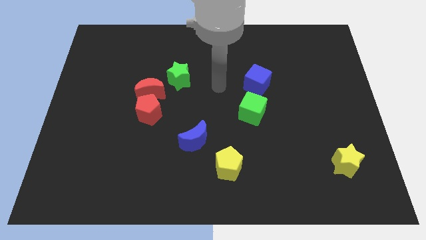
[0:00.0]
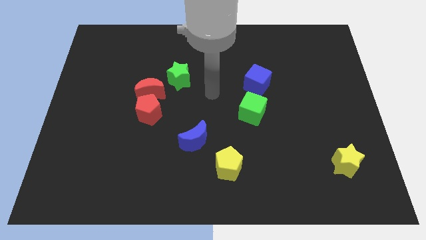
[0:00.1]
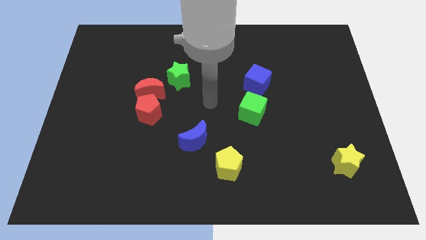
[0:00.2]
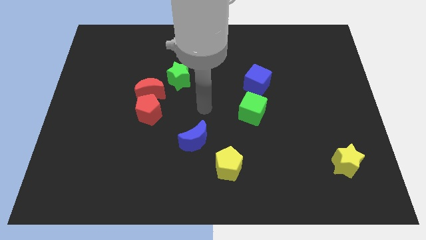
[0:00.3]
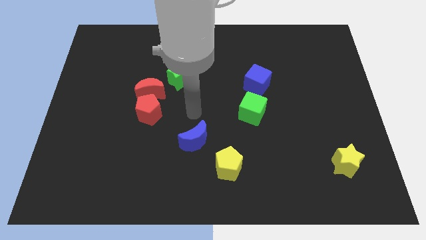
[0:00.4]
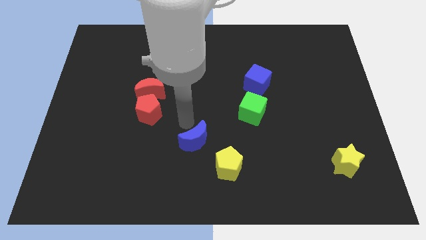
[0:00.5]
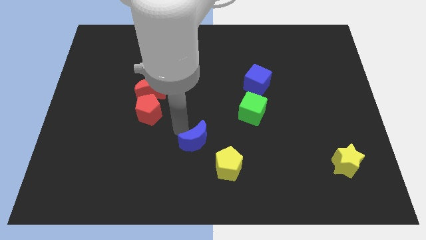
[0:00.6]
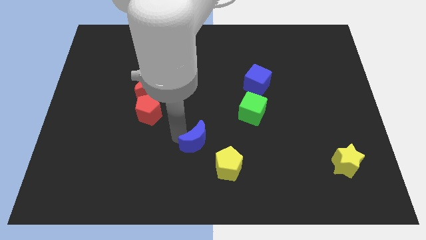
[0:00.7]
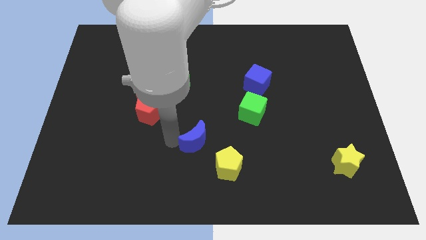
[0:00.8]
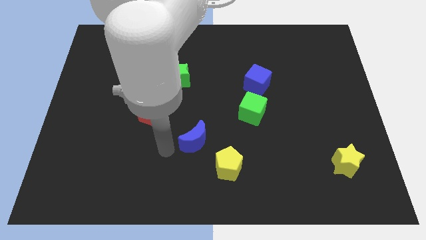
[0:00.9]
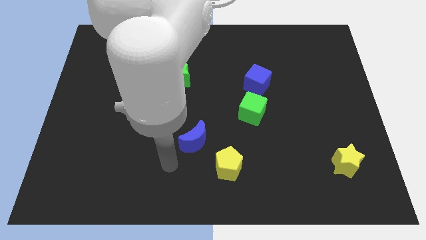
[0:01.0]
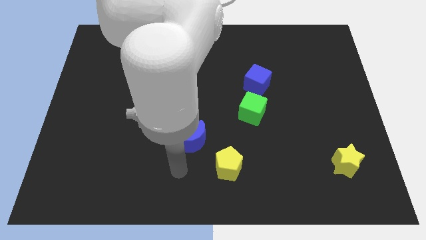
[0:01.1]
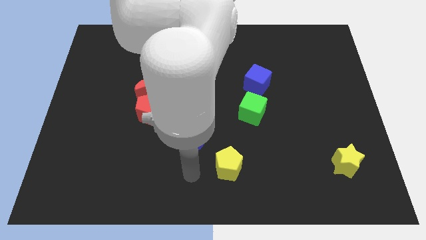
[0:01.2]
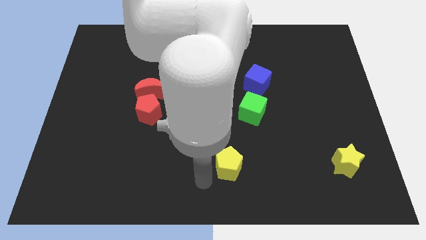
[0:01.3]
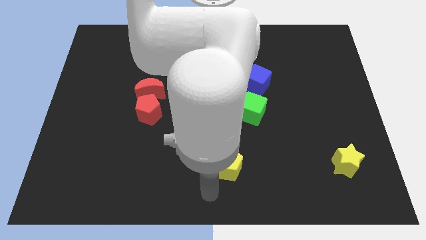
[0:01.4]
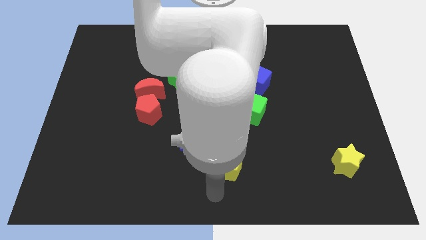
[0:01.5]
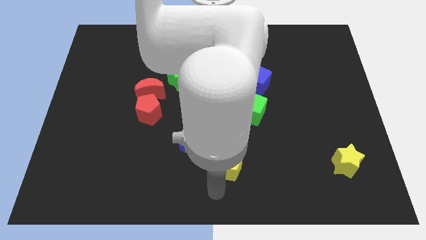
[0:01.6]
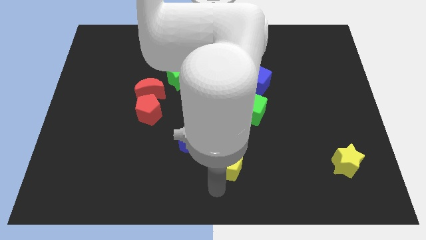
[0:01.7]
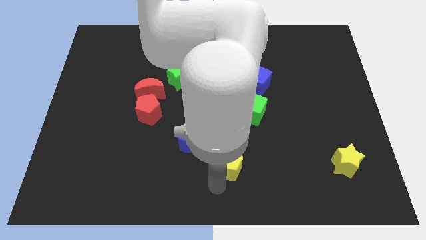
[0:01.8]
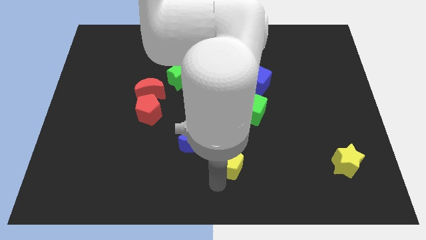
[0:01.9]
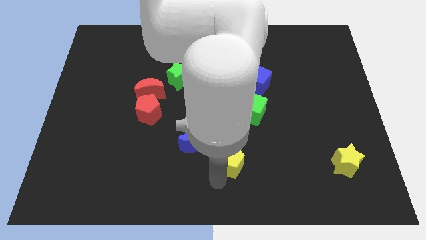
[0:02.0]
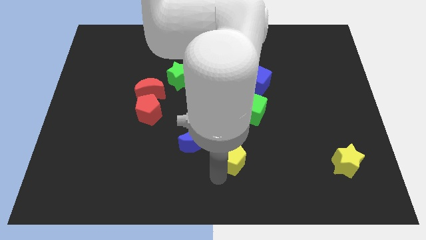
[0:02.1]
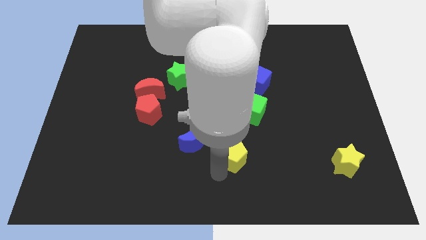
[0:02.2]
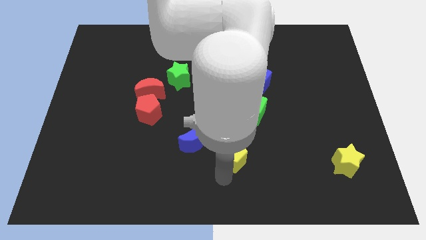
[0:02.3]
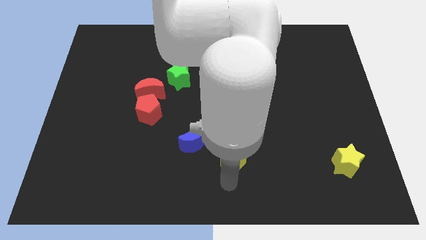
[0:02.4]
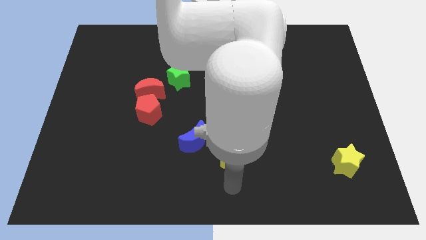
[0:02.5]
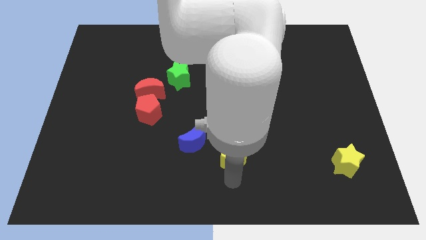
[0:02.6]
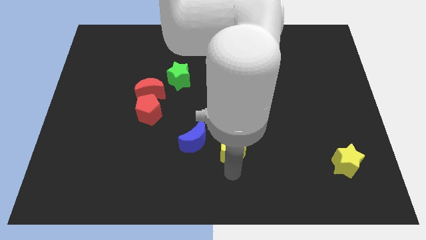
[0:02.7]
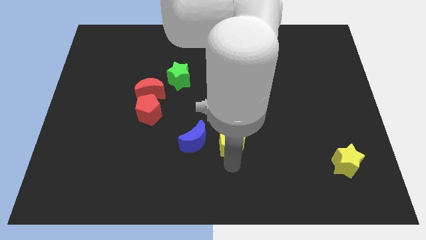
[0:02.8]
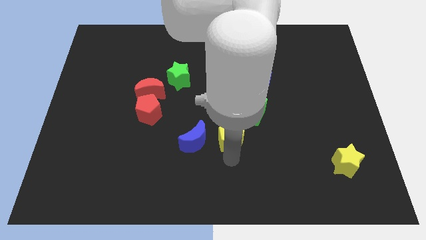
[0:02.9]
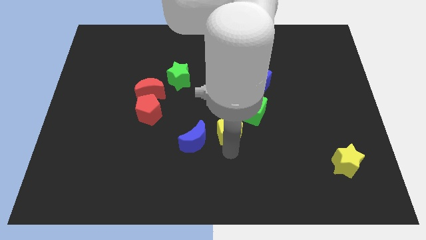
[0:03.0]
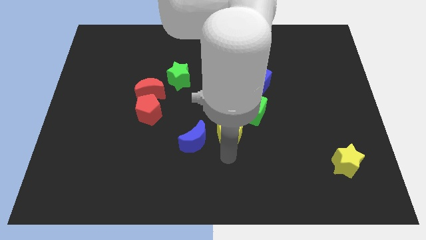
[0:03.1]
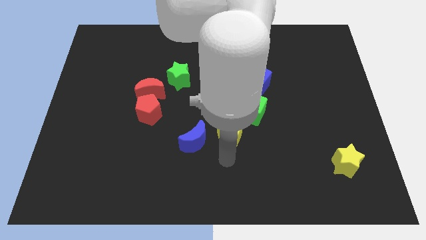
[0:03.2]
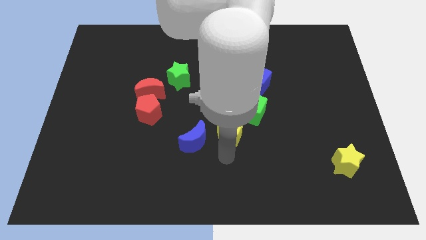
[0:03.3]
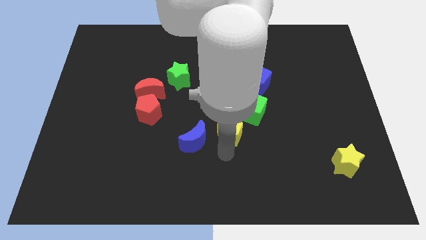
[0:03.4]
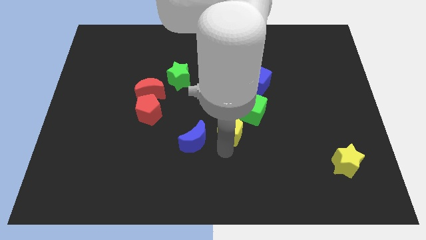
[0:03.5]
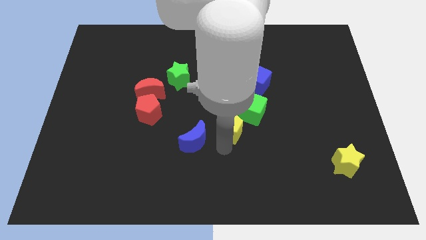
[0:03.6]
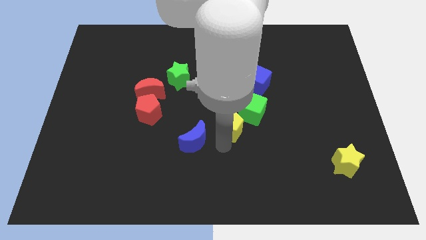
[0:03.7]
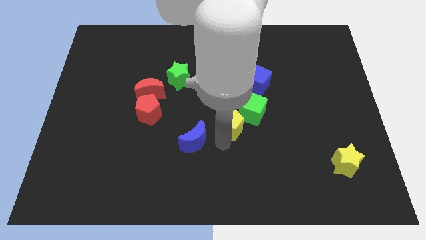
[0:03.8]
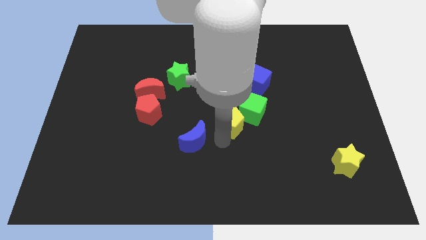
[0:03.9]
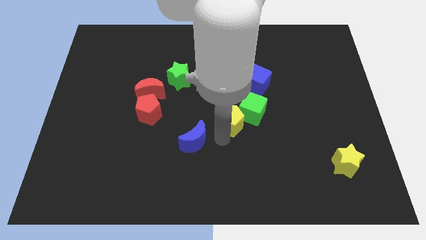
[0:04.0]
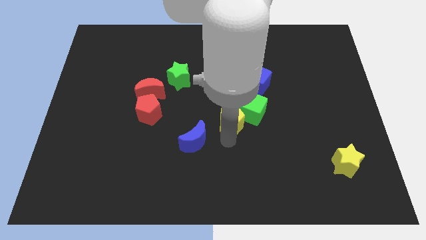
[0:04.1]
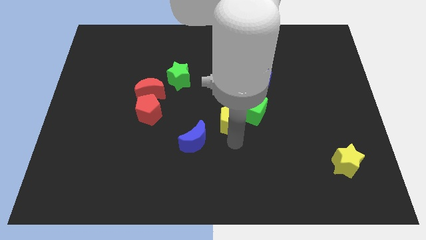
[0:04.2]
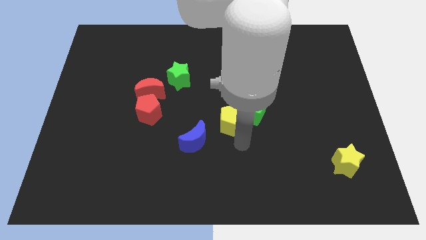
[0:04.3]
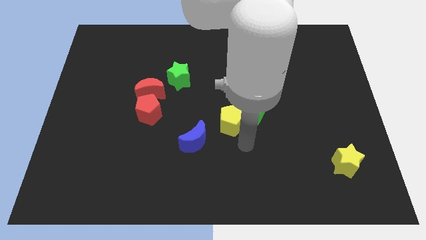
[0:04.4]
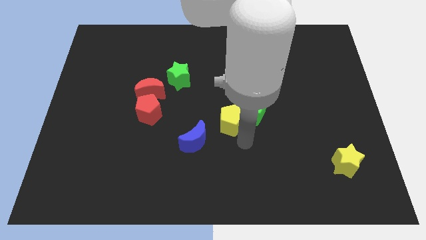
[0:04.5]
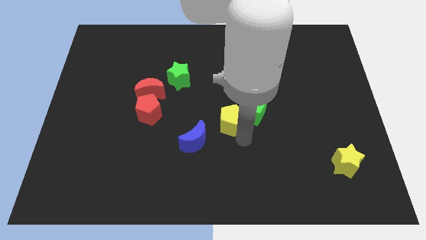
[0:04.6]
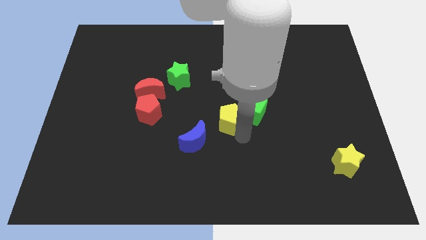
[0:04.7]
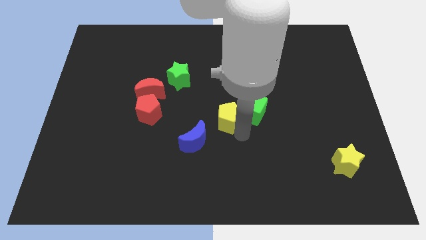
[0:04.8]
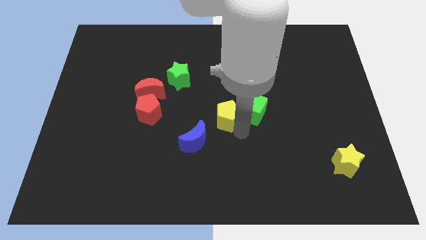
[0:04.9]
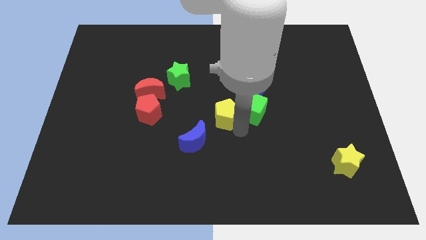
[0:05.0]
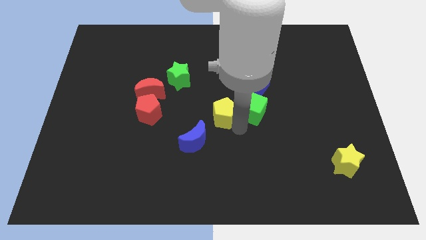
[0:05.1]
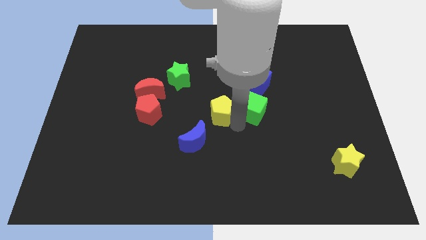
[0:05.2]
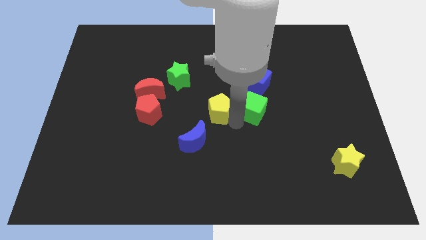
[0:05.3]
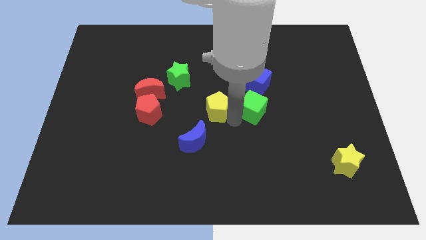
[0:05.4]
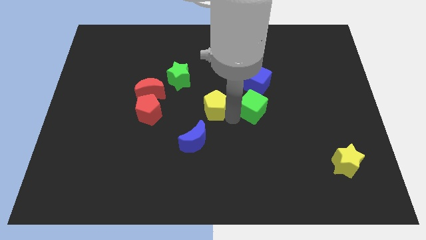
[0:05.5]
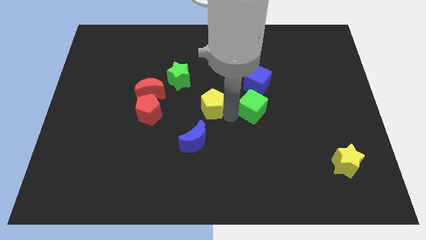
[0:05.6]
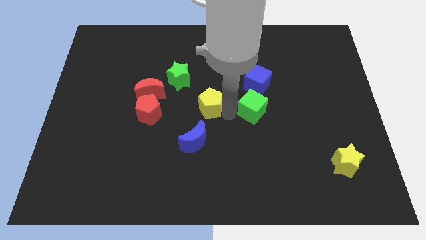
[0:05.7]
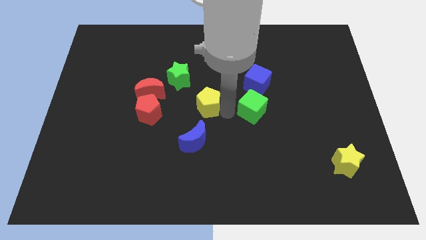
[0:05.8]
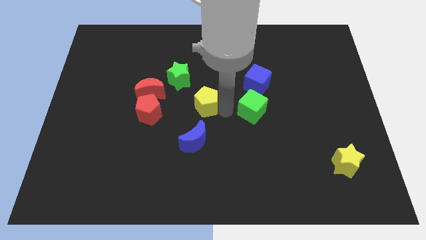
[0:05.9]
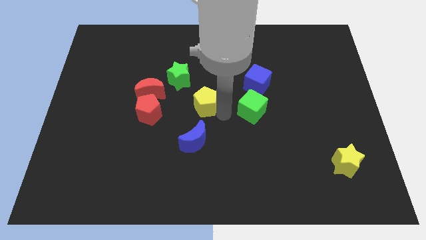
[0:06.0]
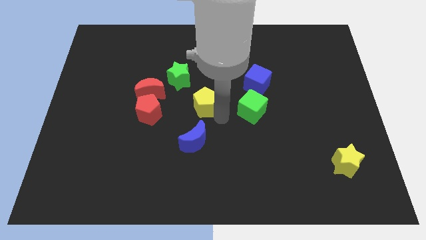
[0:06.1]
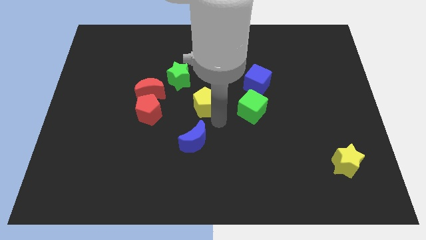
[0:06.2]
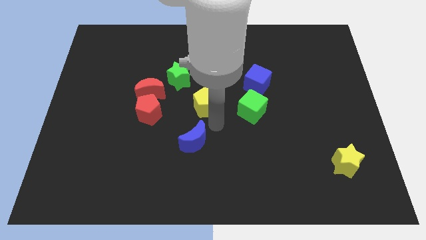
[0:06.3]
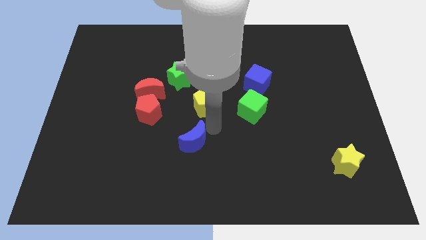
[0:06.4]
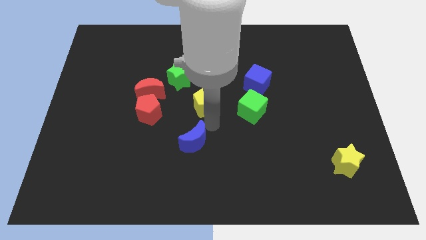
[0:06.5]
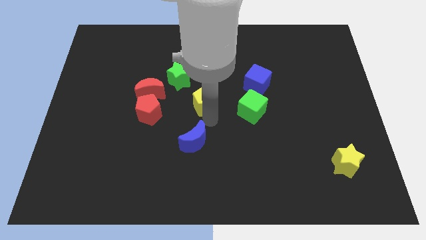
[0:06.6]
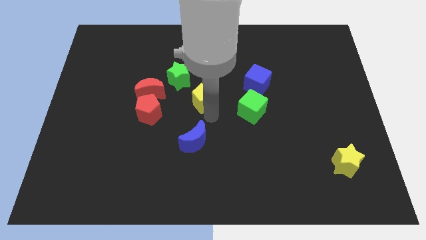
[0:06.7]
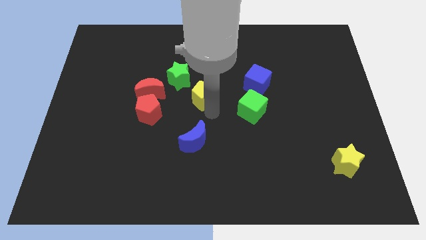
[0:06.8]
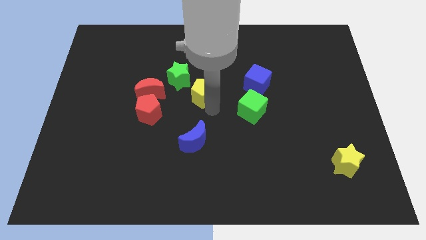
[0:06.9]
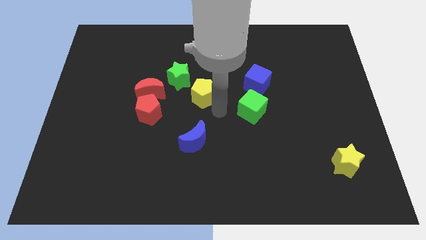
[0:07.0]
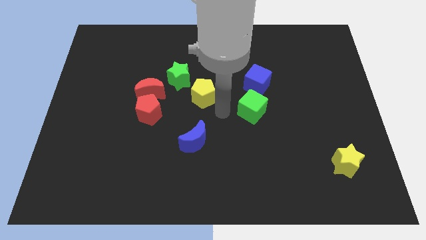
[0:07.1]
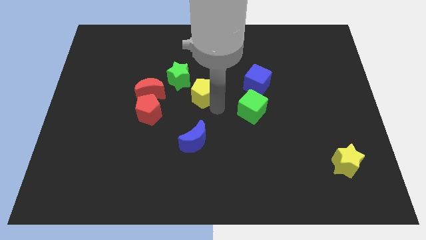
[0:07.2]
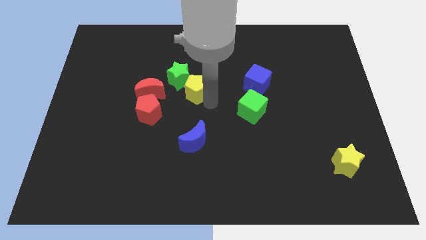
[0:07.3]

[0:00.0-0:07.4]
slide the yellow pentagon to the green star
